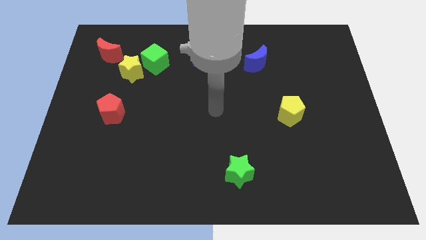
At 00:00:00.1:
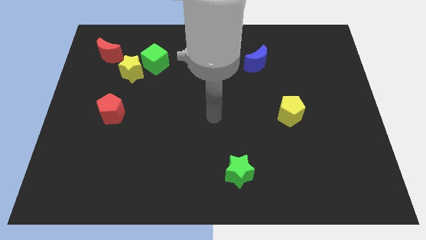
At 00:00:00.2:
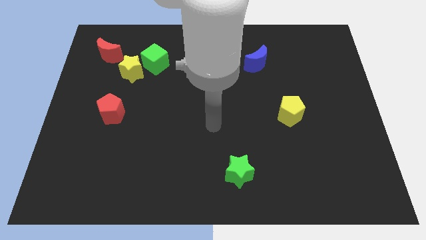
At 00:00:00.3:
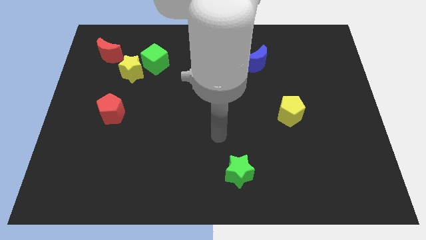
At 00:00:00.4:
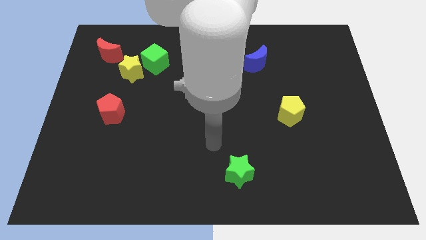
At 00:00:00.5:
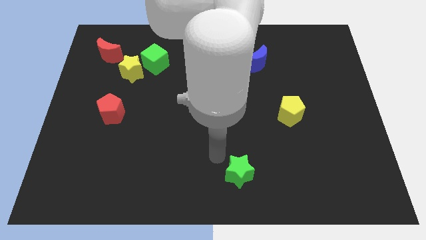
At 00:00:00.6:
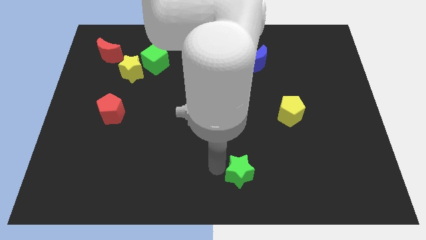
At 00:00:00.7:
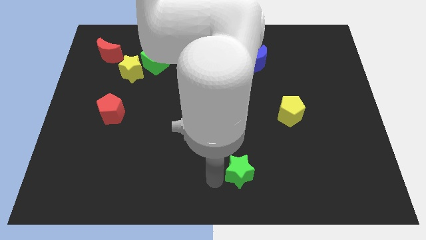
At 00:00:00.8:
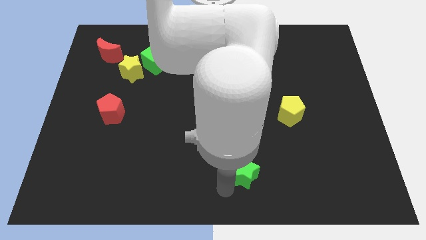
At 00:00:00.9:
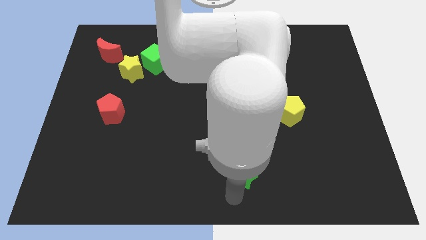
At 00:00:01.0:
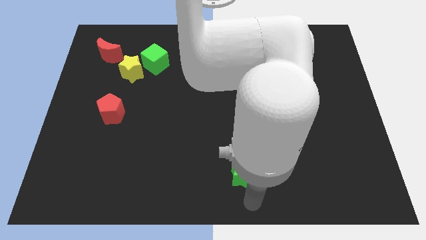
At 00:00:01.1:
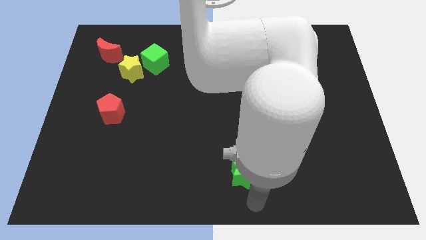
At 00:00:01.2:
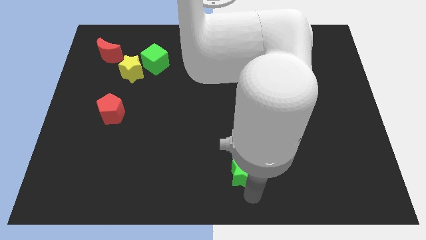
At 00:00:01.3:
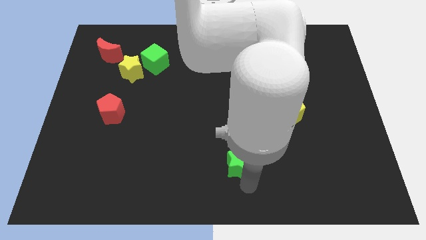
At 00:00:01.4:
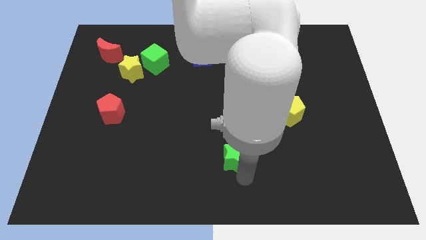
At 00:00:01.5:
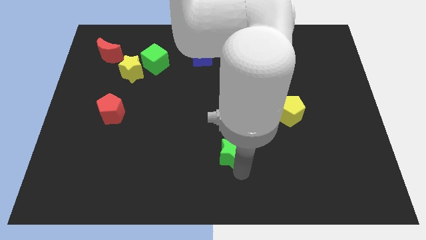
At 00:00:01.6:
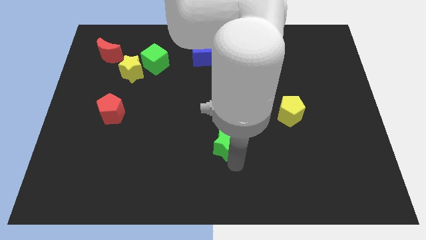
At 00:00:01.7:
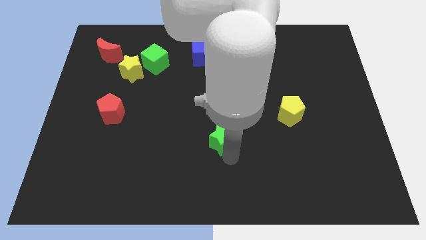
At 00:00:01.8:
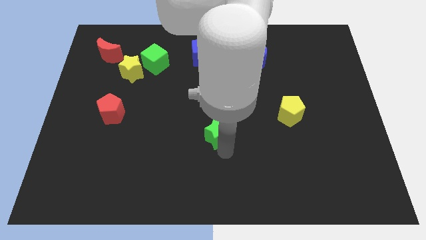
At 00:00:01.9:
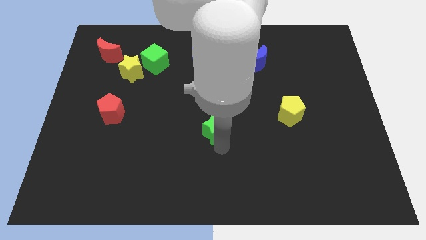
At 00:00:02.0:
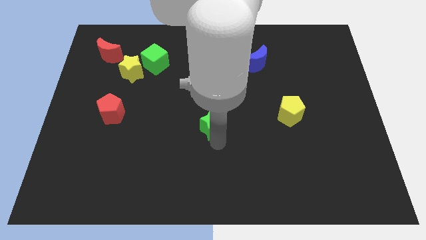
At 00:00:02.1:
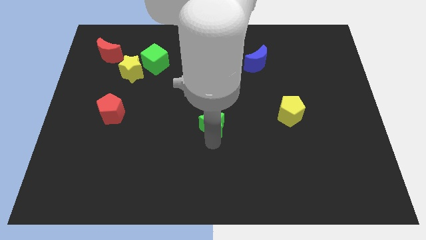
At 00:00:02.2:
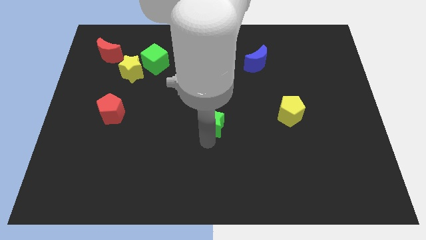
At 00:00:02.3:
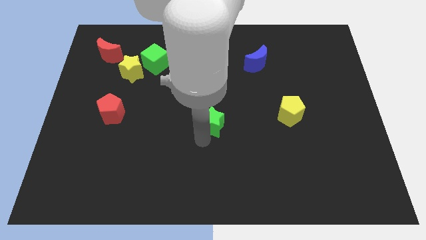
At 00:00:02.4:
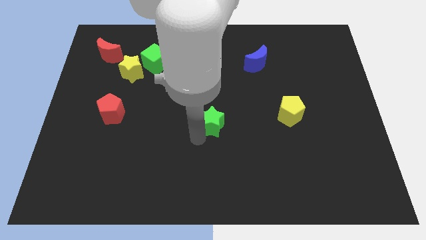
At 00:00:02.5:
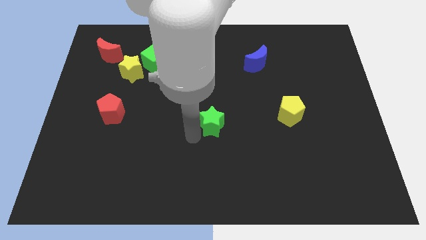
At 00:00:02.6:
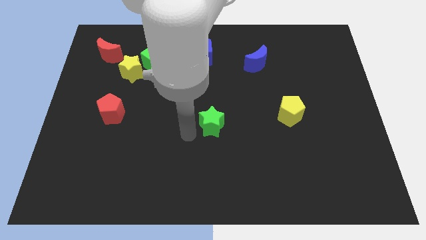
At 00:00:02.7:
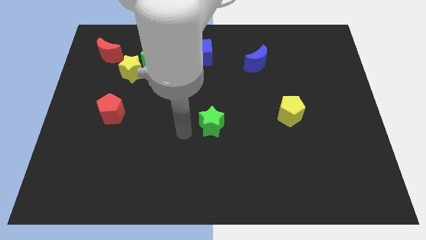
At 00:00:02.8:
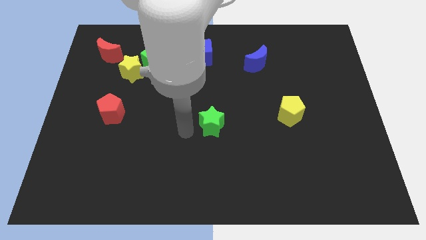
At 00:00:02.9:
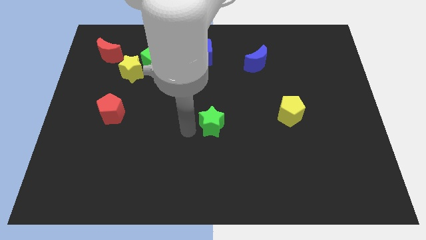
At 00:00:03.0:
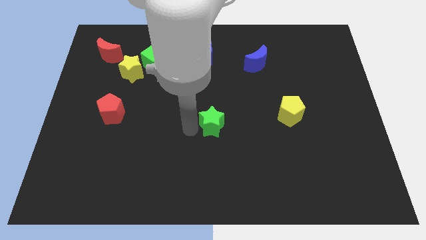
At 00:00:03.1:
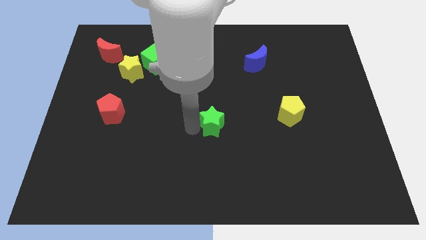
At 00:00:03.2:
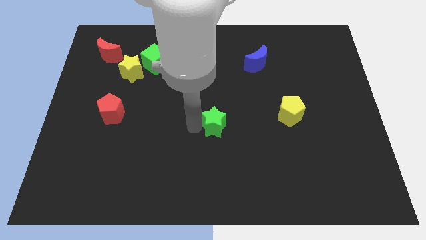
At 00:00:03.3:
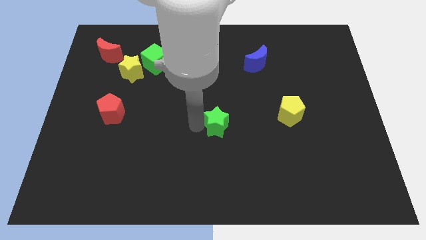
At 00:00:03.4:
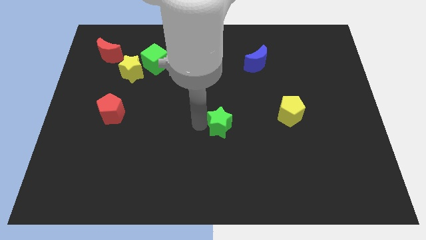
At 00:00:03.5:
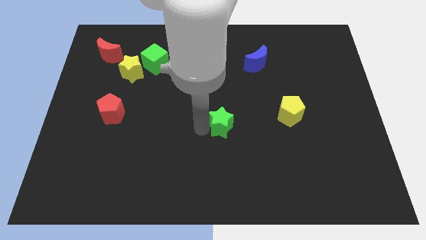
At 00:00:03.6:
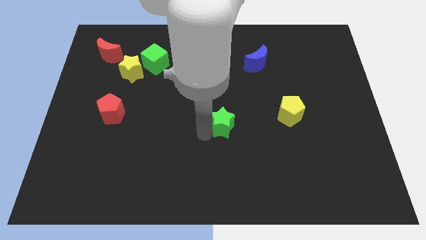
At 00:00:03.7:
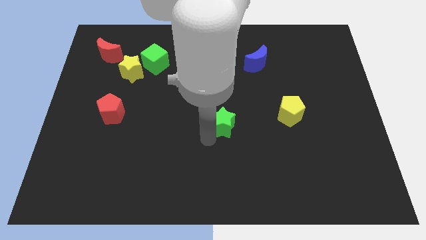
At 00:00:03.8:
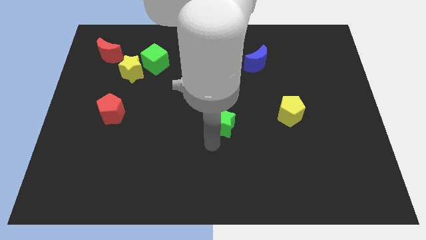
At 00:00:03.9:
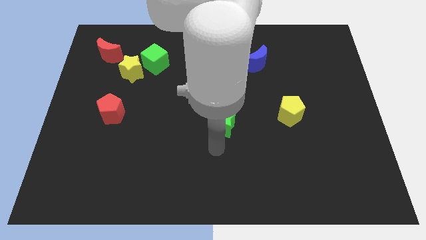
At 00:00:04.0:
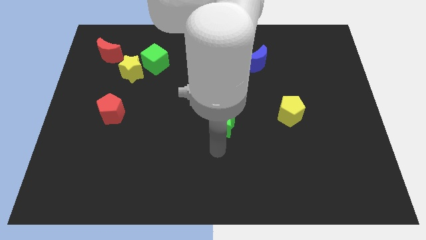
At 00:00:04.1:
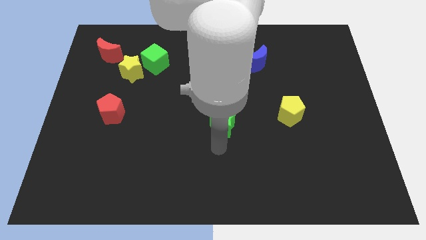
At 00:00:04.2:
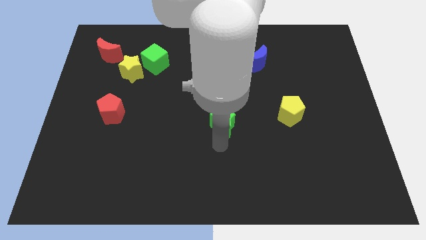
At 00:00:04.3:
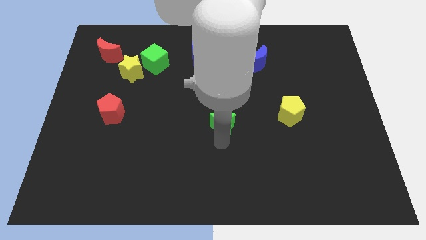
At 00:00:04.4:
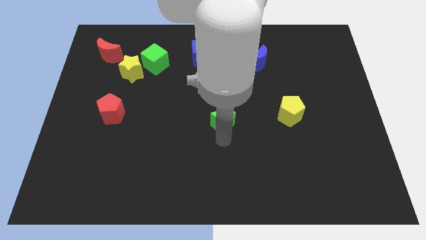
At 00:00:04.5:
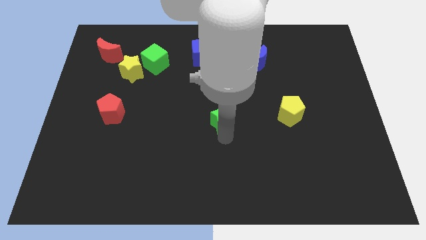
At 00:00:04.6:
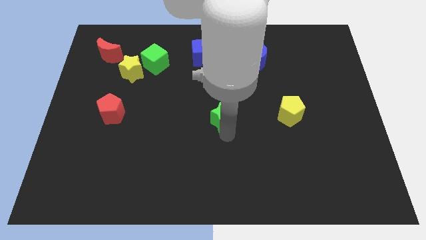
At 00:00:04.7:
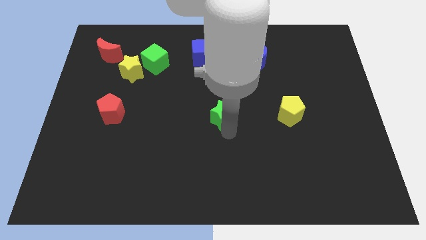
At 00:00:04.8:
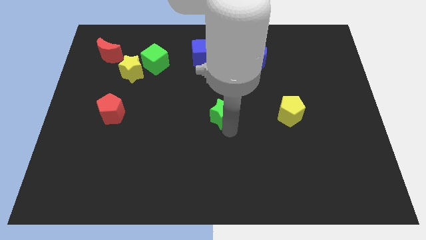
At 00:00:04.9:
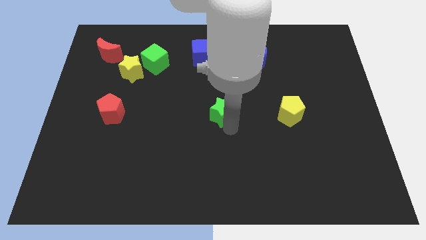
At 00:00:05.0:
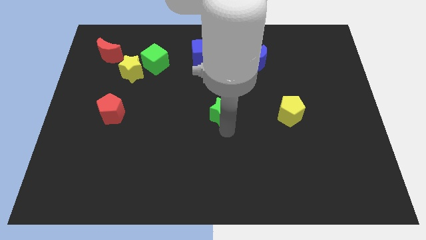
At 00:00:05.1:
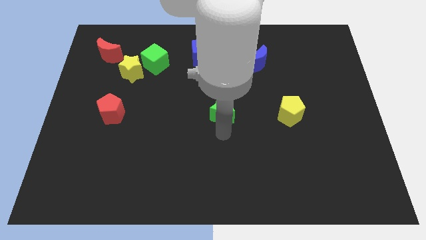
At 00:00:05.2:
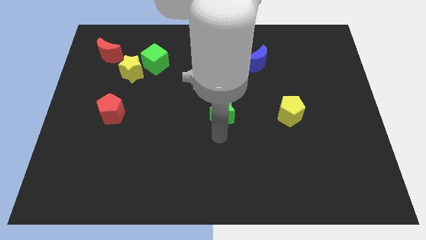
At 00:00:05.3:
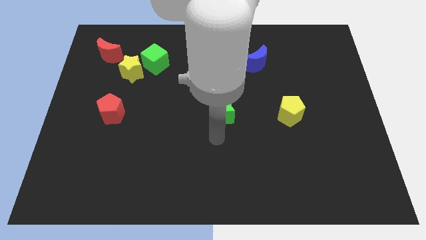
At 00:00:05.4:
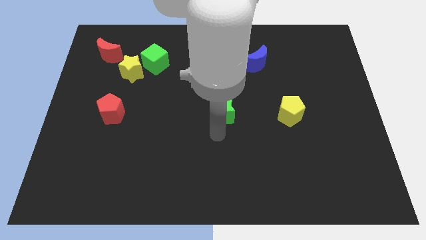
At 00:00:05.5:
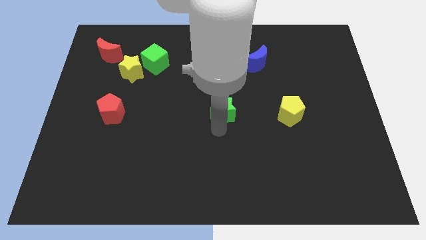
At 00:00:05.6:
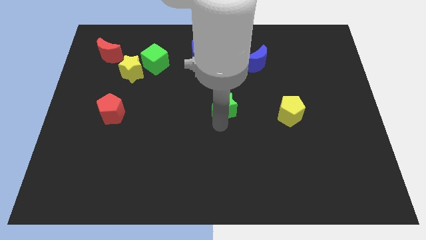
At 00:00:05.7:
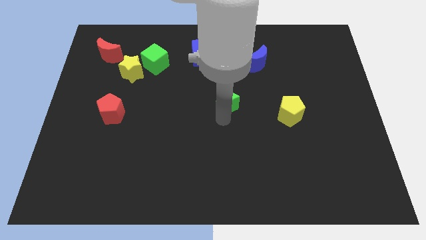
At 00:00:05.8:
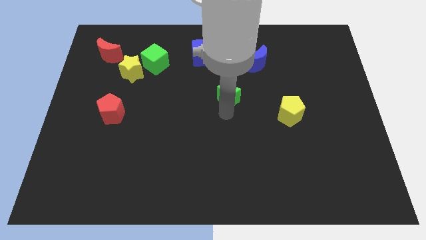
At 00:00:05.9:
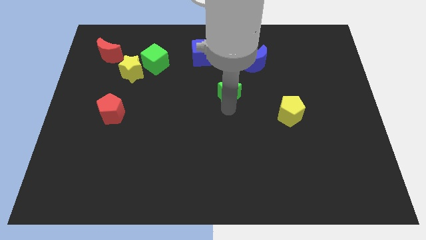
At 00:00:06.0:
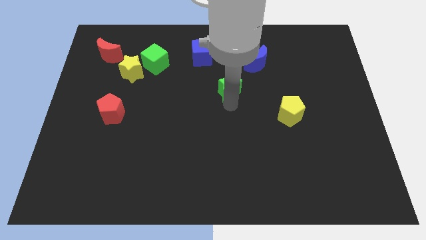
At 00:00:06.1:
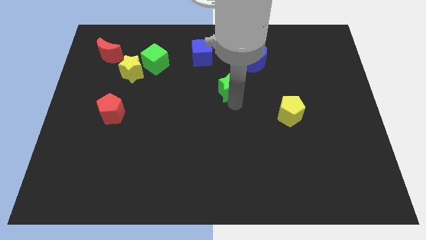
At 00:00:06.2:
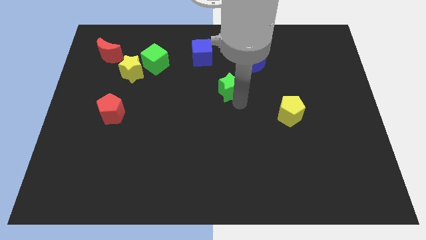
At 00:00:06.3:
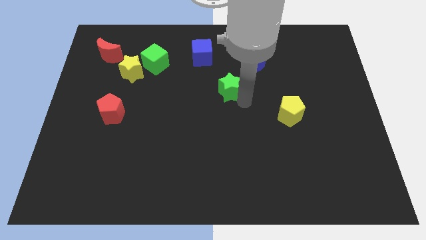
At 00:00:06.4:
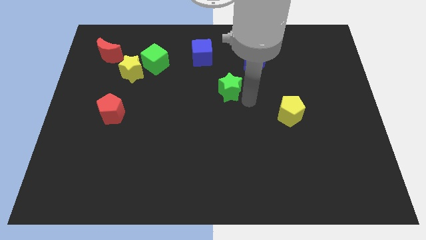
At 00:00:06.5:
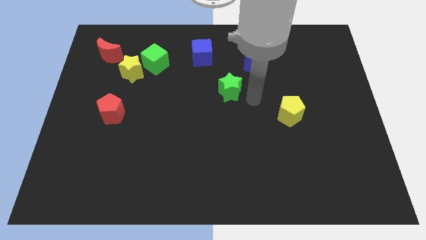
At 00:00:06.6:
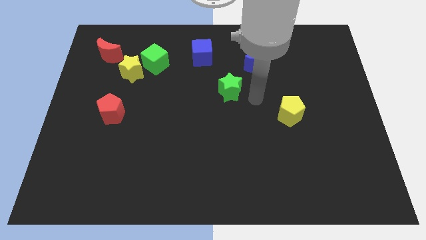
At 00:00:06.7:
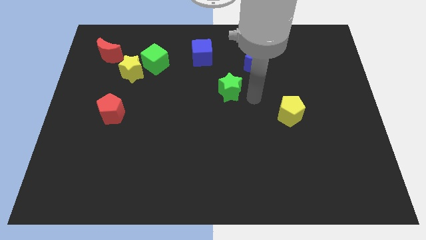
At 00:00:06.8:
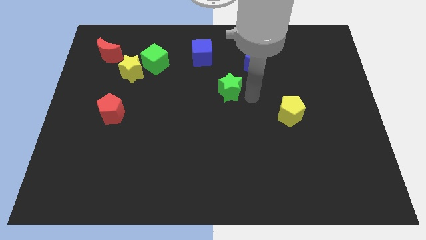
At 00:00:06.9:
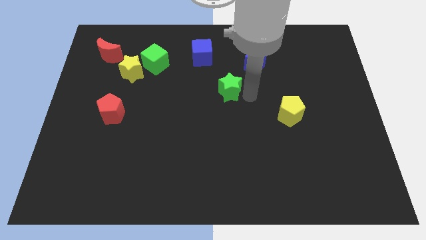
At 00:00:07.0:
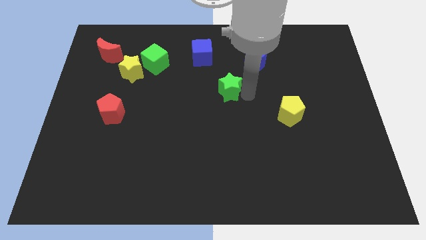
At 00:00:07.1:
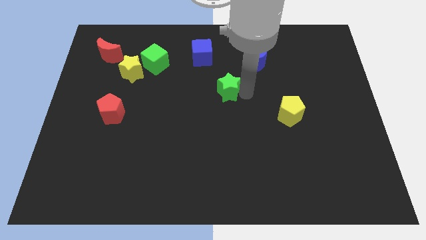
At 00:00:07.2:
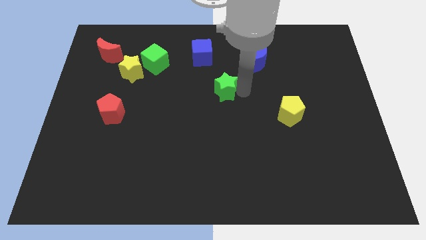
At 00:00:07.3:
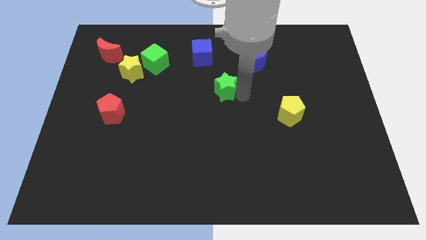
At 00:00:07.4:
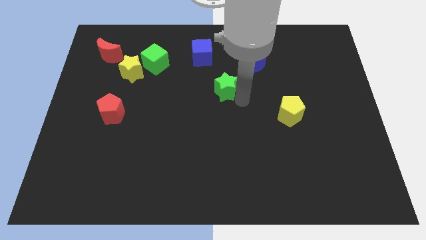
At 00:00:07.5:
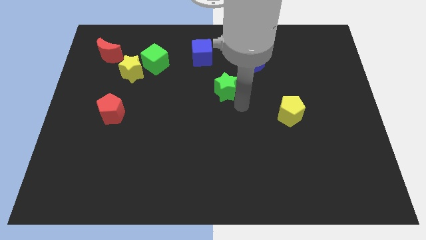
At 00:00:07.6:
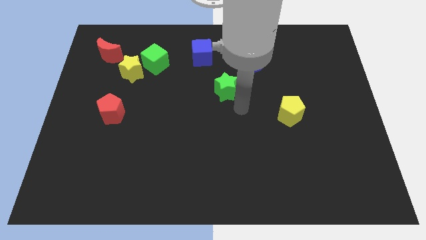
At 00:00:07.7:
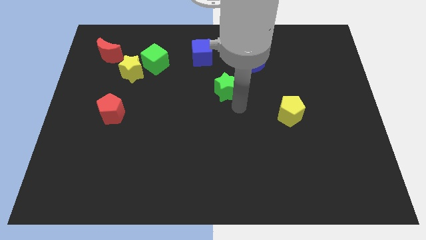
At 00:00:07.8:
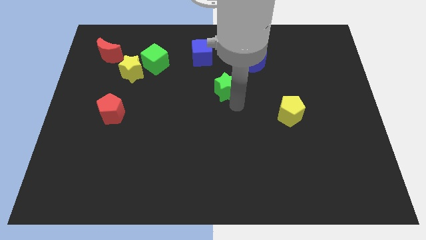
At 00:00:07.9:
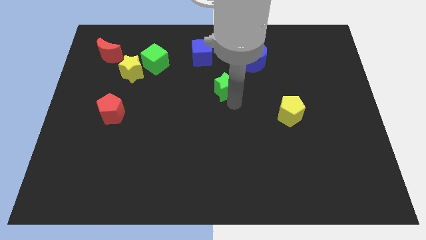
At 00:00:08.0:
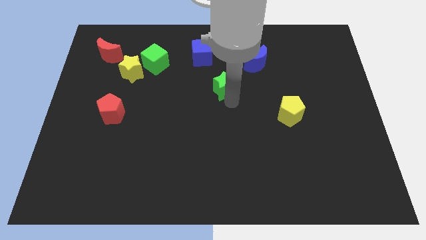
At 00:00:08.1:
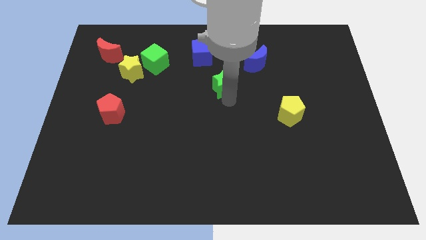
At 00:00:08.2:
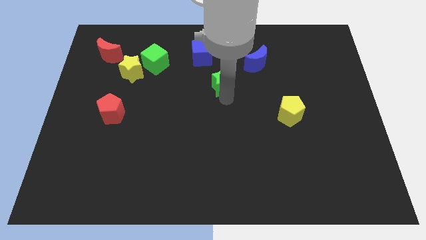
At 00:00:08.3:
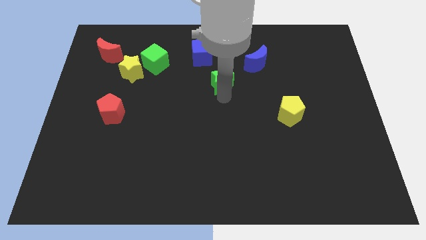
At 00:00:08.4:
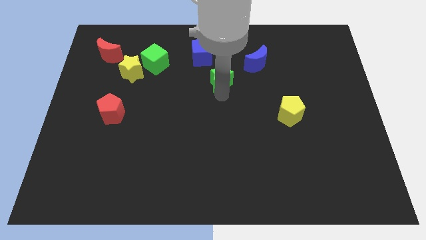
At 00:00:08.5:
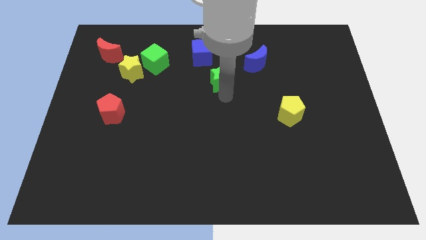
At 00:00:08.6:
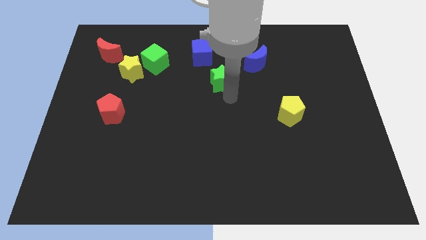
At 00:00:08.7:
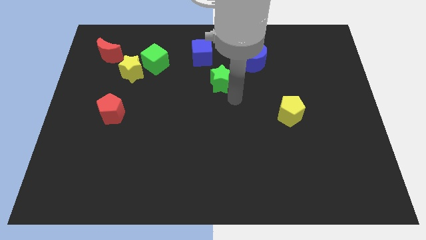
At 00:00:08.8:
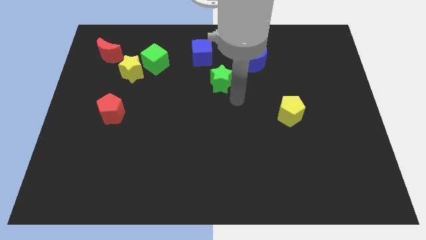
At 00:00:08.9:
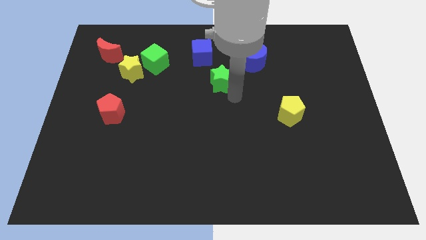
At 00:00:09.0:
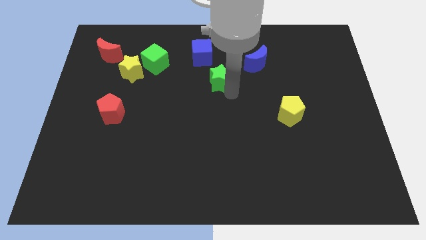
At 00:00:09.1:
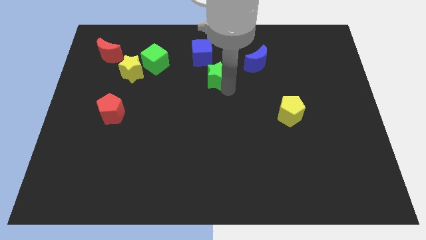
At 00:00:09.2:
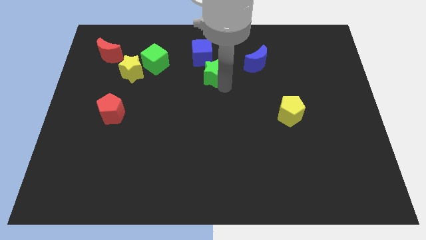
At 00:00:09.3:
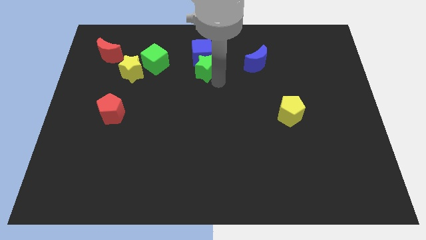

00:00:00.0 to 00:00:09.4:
slide the green star next to the blue cube
